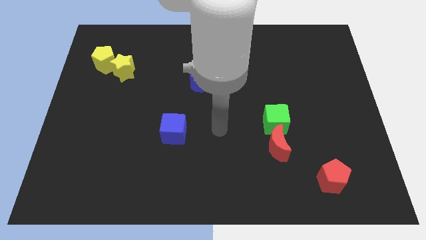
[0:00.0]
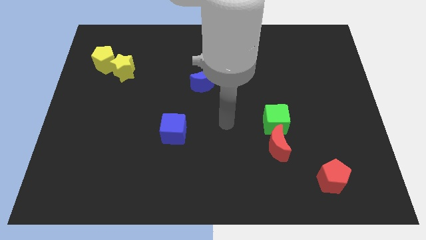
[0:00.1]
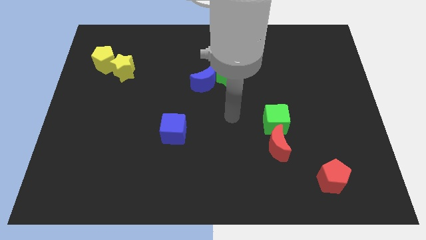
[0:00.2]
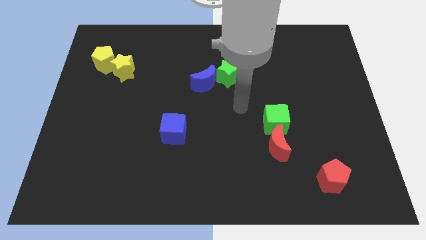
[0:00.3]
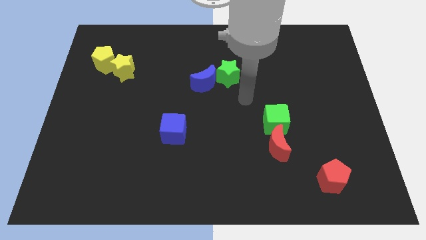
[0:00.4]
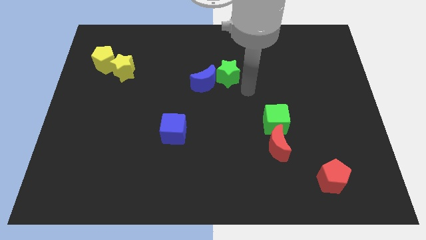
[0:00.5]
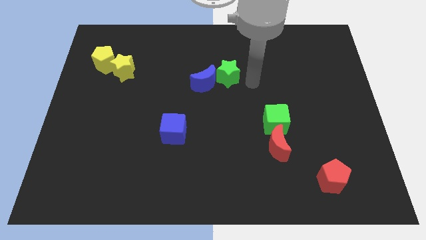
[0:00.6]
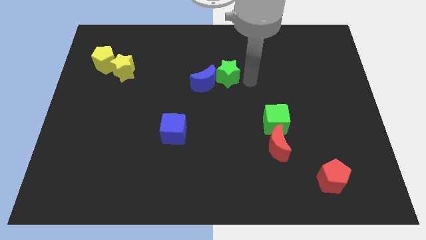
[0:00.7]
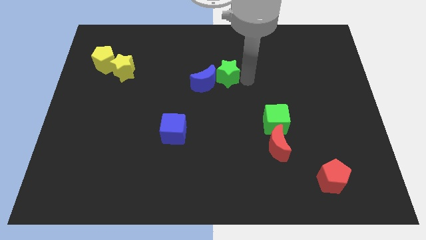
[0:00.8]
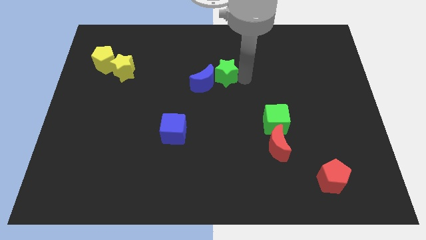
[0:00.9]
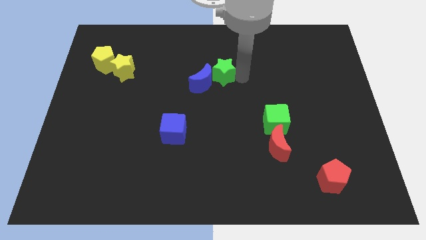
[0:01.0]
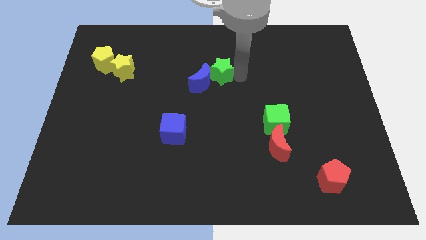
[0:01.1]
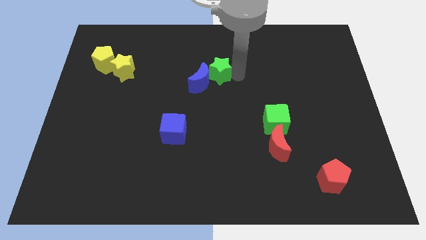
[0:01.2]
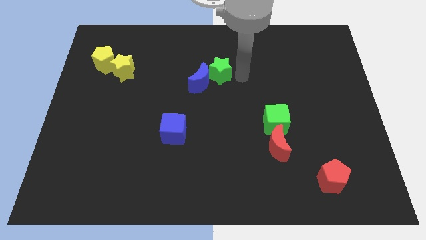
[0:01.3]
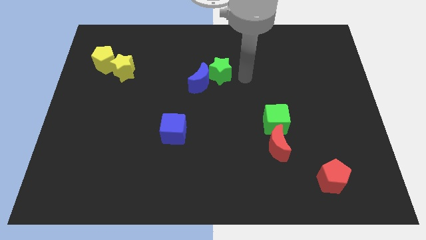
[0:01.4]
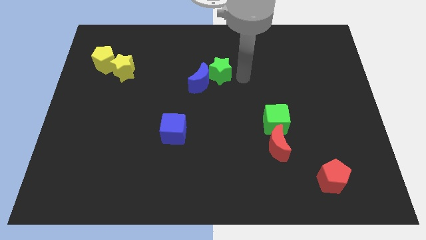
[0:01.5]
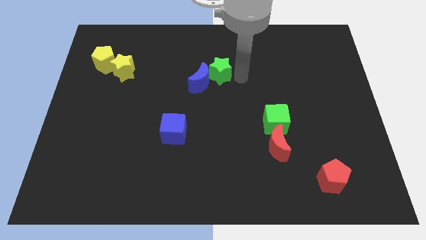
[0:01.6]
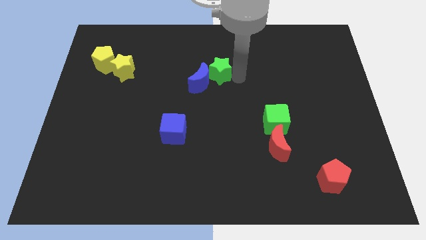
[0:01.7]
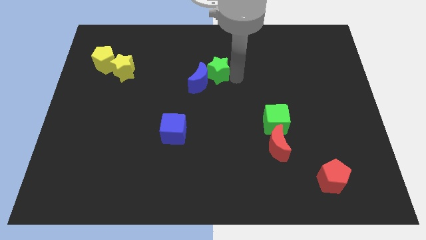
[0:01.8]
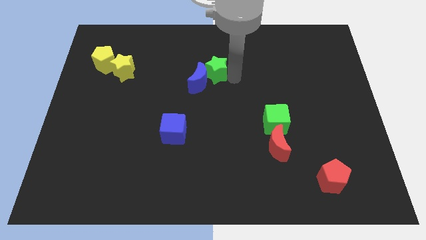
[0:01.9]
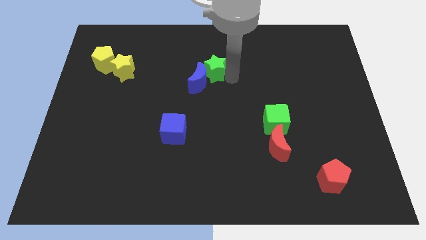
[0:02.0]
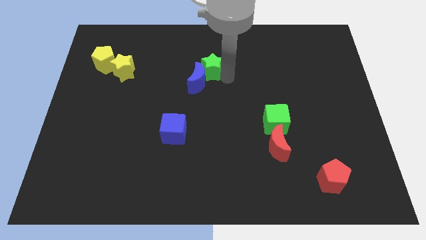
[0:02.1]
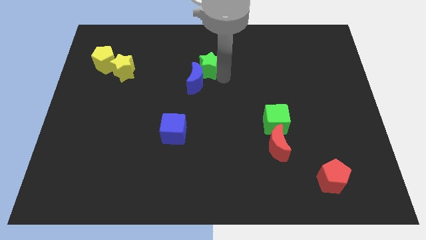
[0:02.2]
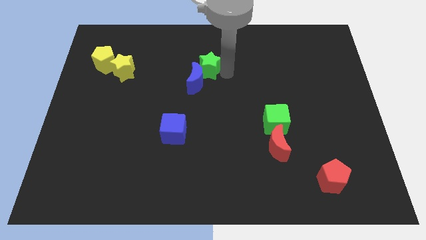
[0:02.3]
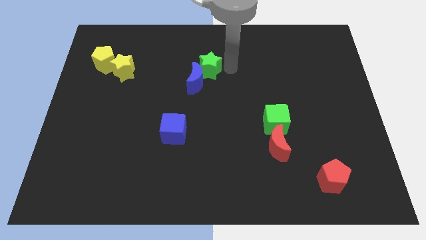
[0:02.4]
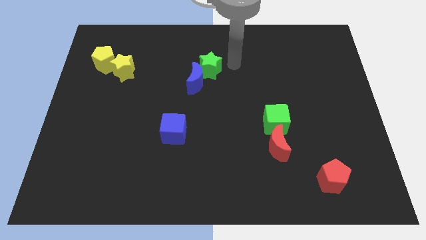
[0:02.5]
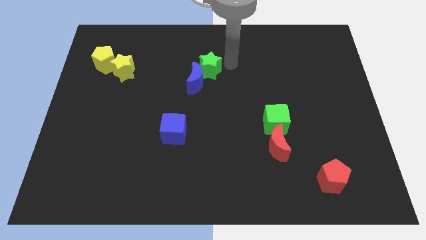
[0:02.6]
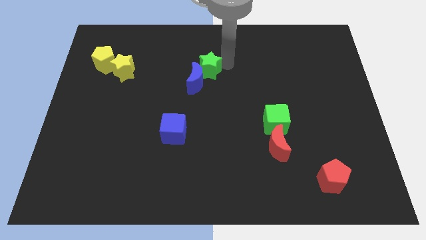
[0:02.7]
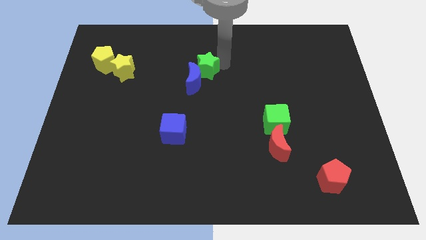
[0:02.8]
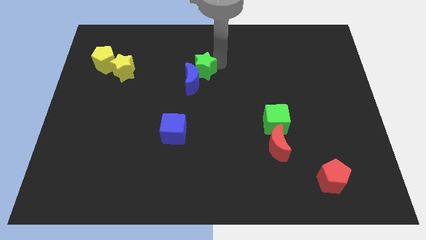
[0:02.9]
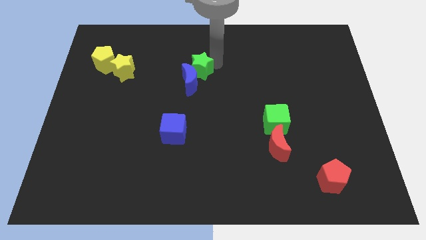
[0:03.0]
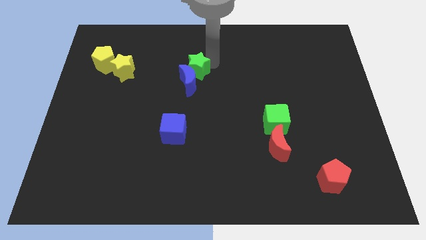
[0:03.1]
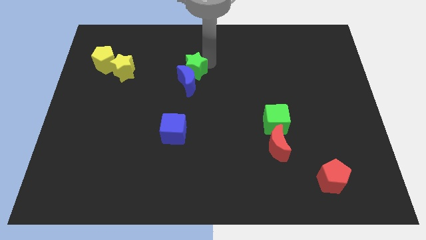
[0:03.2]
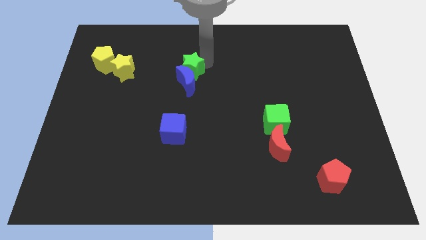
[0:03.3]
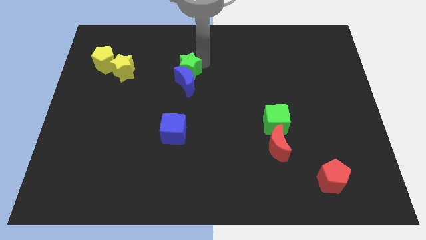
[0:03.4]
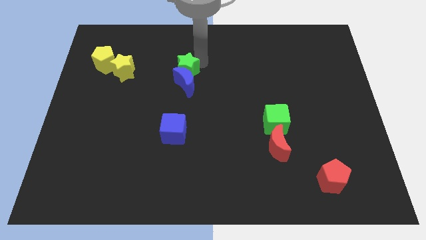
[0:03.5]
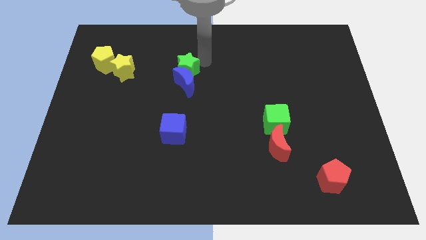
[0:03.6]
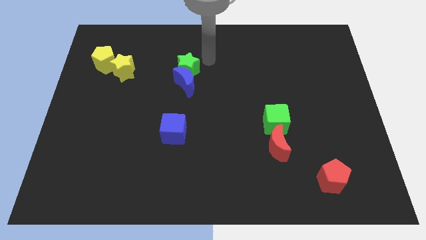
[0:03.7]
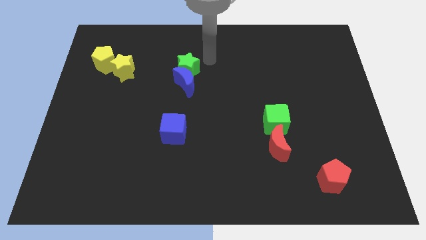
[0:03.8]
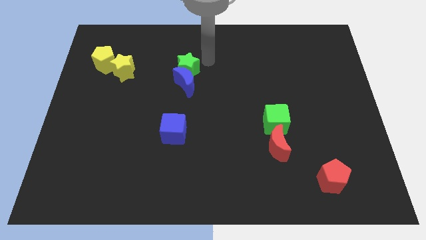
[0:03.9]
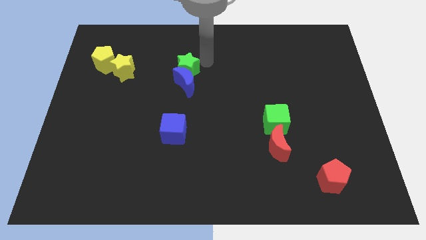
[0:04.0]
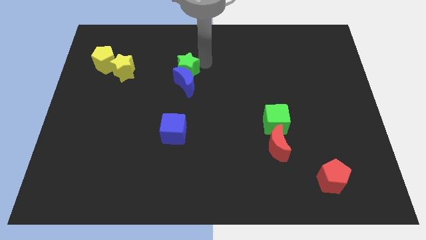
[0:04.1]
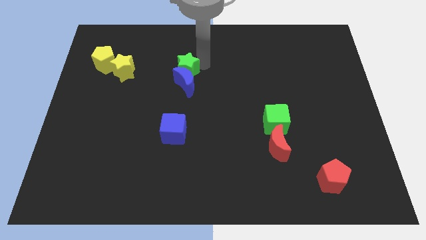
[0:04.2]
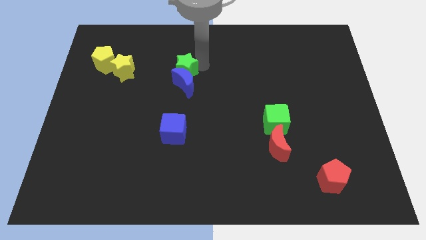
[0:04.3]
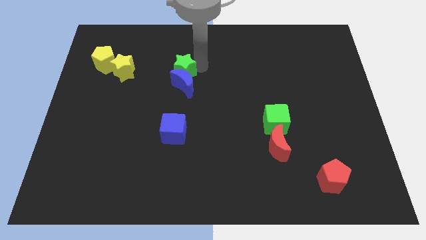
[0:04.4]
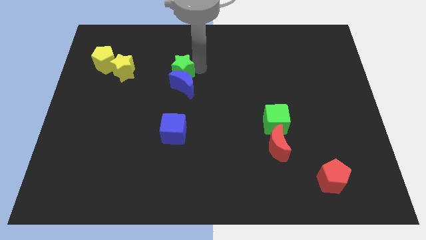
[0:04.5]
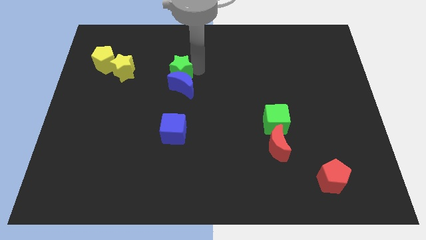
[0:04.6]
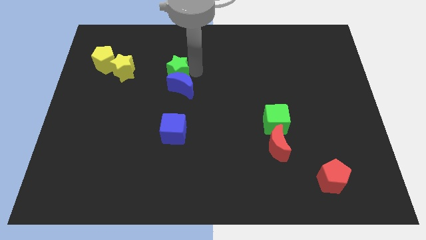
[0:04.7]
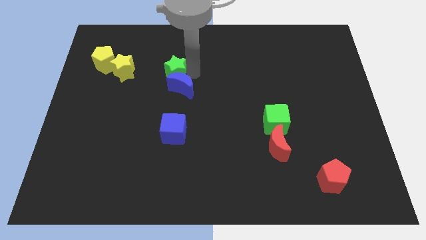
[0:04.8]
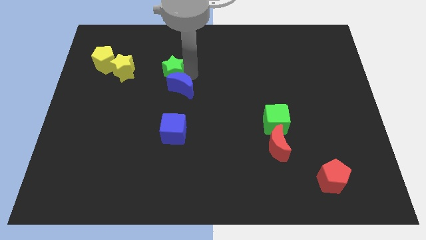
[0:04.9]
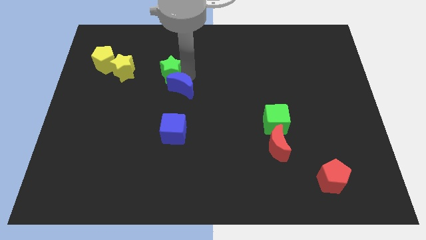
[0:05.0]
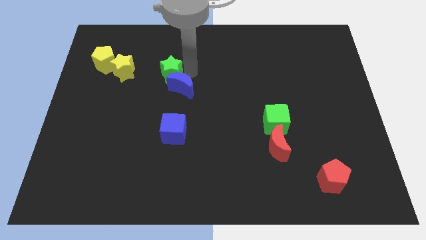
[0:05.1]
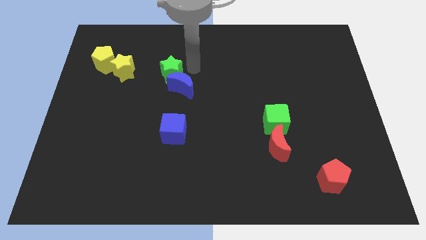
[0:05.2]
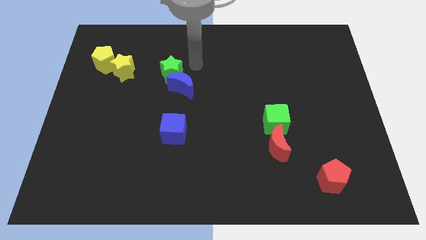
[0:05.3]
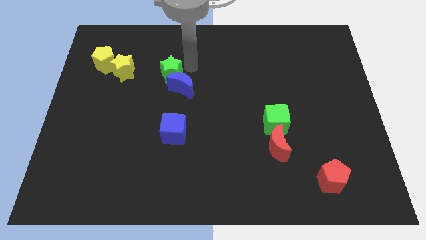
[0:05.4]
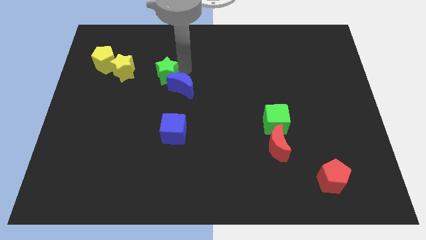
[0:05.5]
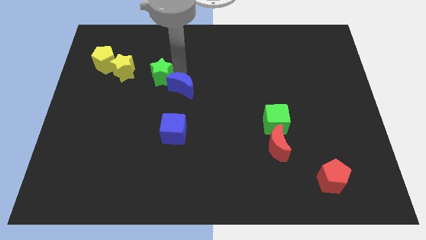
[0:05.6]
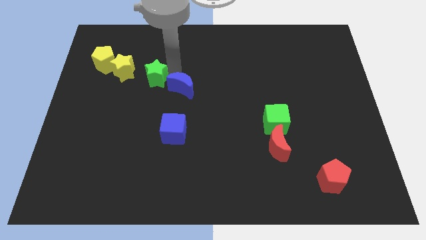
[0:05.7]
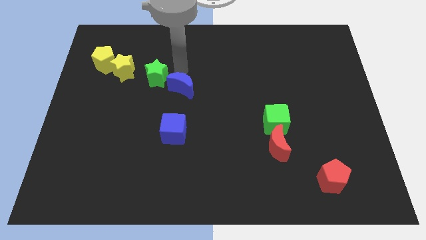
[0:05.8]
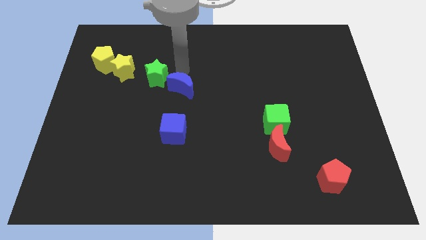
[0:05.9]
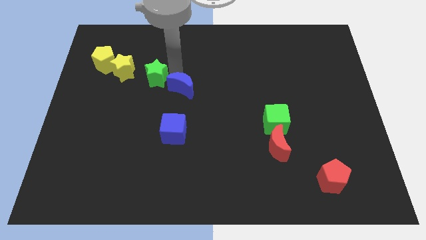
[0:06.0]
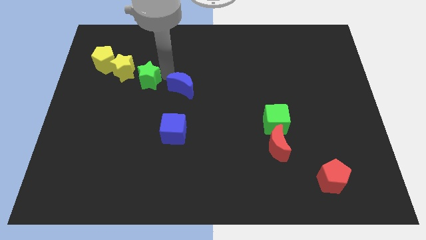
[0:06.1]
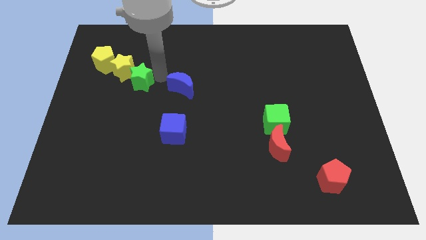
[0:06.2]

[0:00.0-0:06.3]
push the green star left

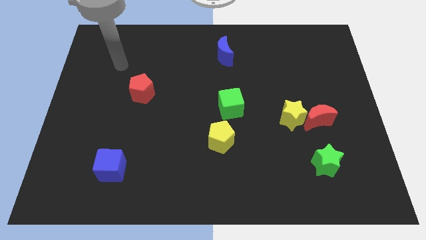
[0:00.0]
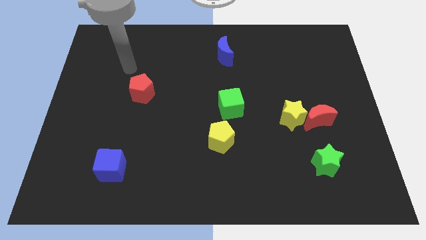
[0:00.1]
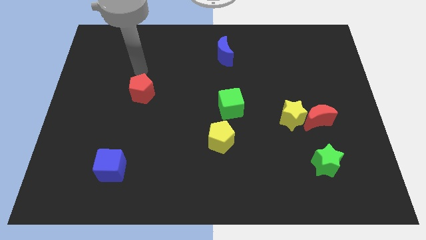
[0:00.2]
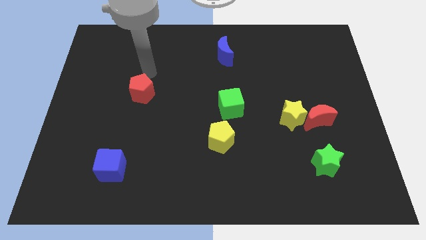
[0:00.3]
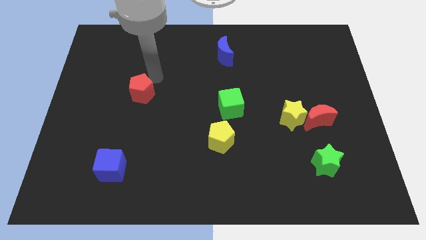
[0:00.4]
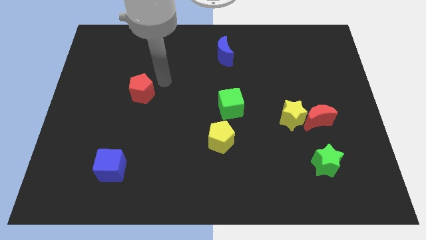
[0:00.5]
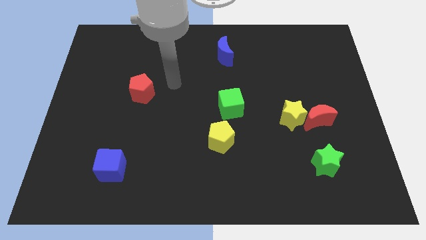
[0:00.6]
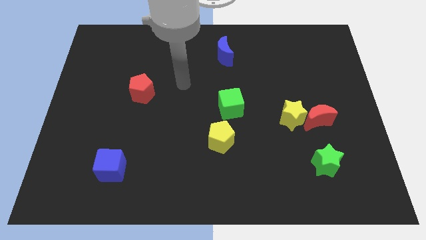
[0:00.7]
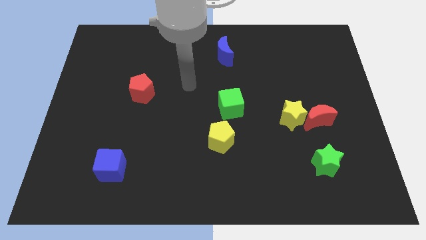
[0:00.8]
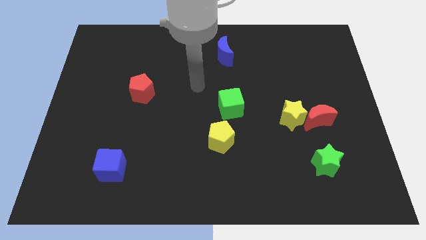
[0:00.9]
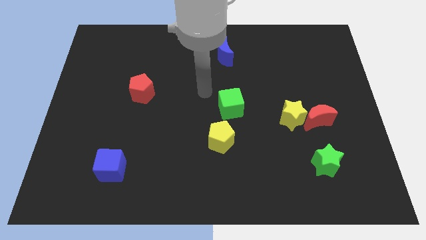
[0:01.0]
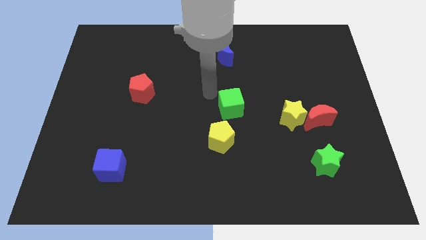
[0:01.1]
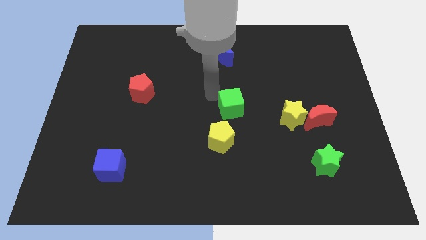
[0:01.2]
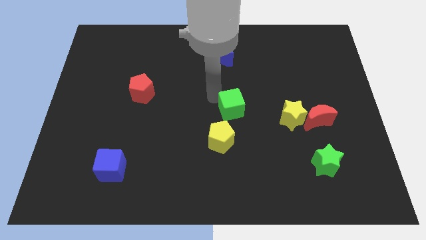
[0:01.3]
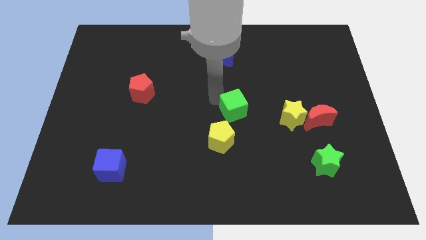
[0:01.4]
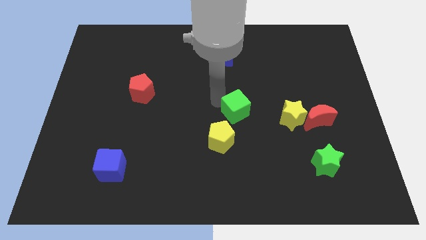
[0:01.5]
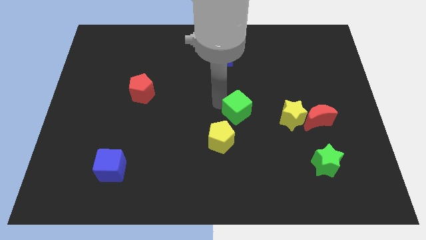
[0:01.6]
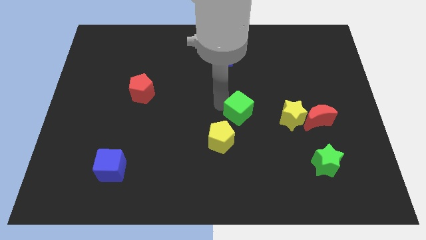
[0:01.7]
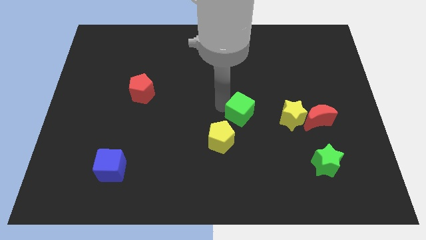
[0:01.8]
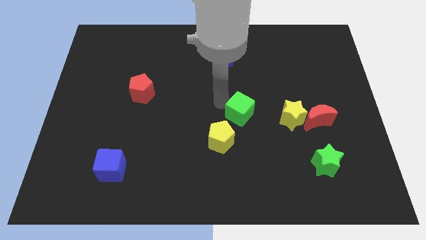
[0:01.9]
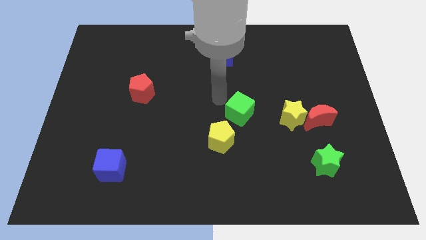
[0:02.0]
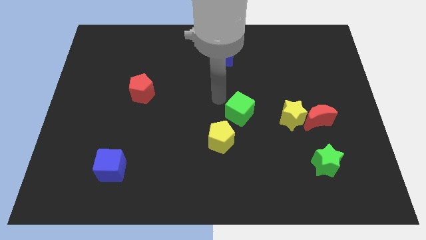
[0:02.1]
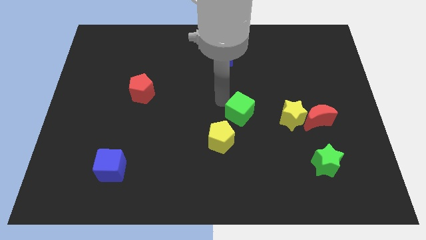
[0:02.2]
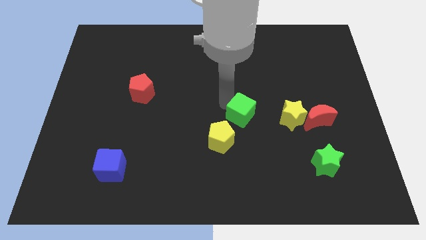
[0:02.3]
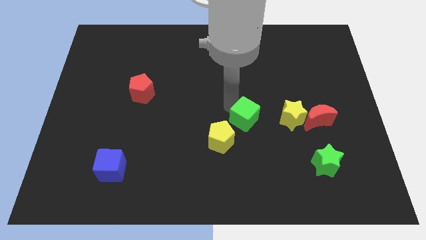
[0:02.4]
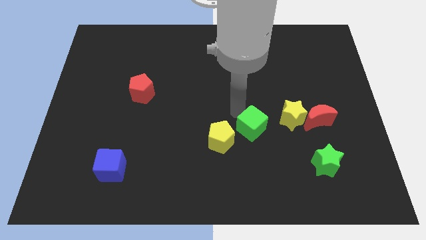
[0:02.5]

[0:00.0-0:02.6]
move the green cube a bit diagonally downwards and right
